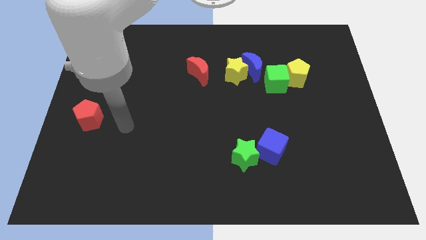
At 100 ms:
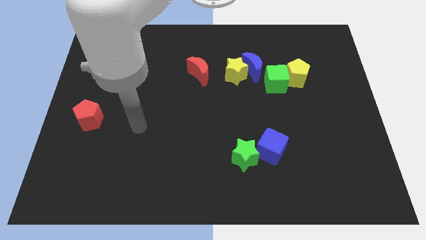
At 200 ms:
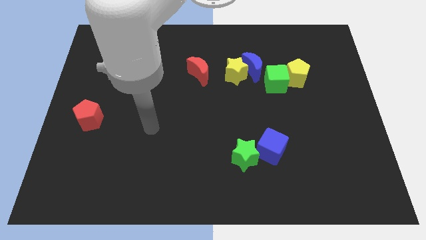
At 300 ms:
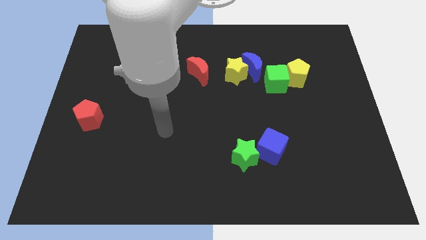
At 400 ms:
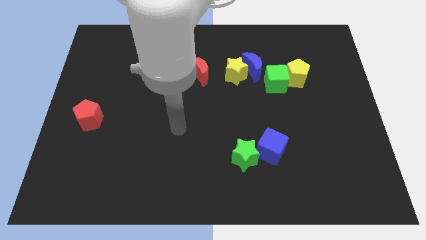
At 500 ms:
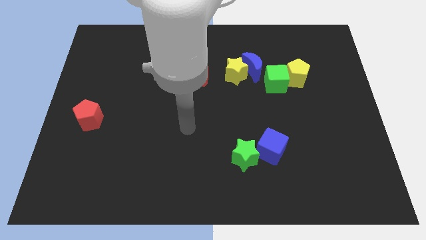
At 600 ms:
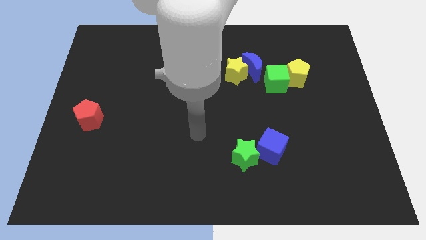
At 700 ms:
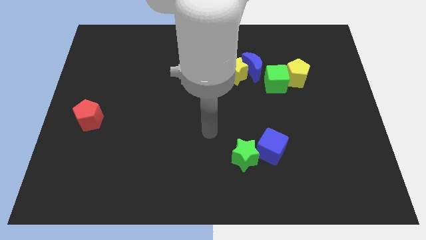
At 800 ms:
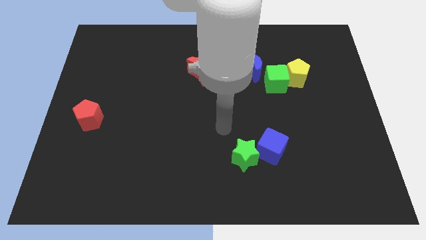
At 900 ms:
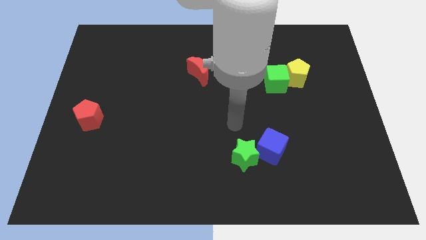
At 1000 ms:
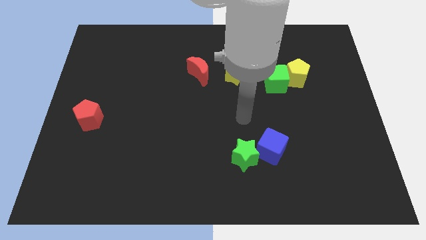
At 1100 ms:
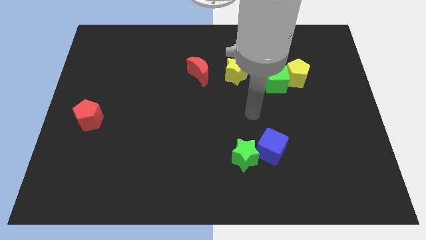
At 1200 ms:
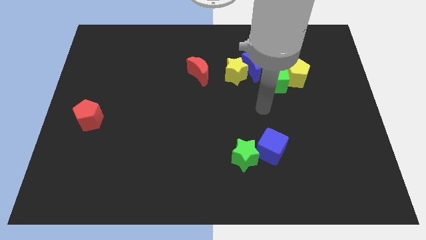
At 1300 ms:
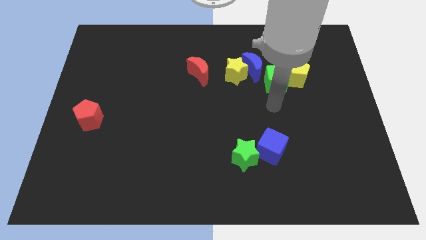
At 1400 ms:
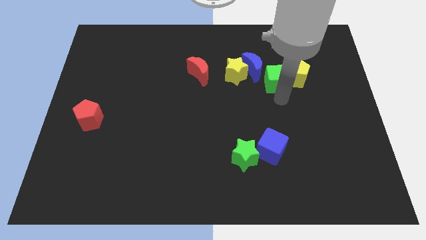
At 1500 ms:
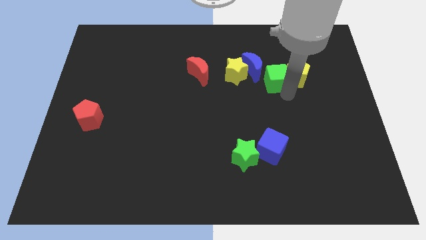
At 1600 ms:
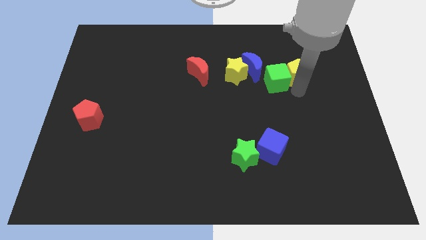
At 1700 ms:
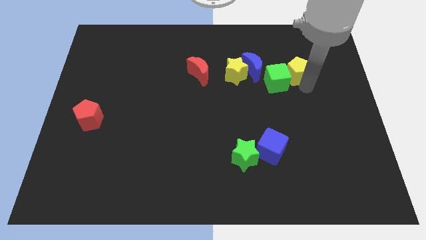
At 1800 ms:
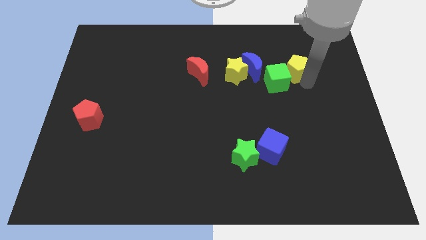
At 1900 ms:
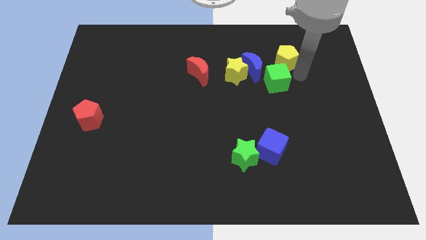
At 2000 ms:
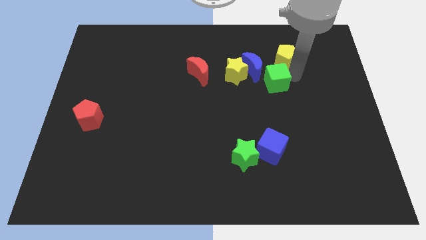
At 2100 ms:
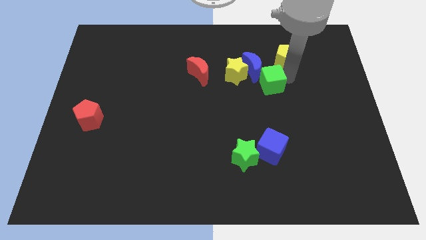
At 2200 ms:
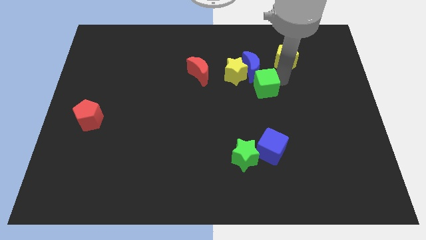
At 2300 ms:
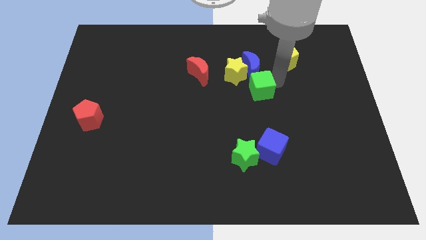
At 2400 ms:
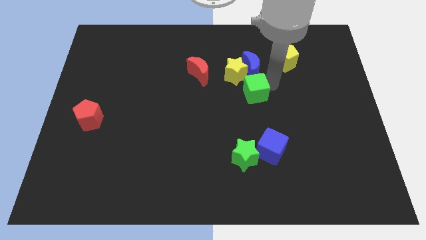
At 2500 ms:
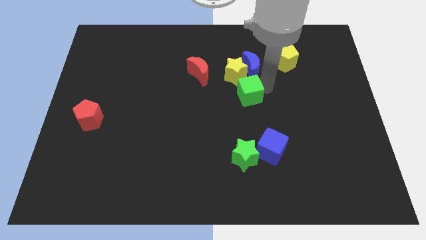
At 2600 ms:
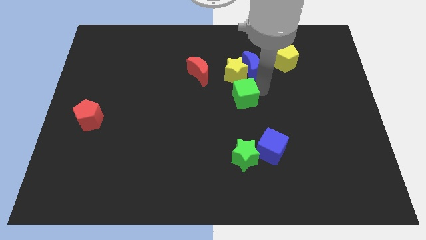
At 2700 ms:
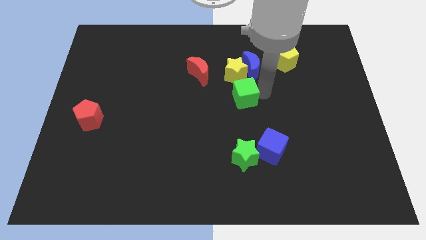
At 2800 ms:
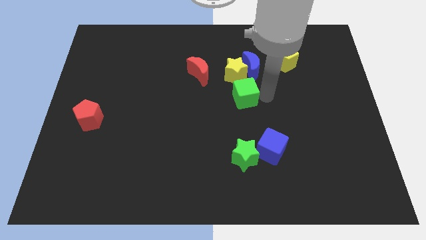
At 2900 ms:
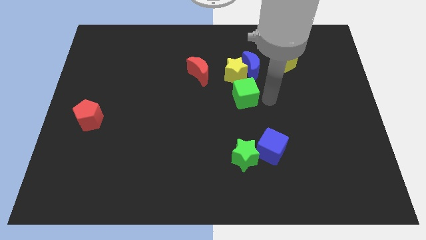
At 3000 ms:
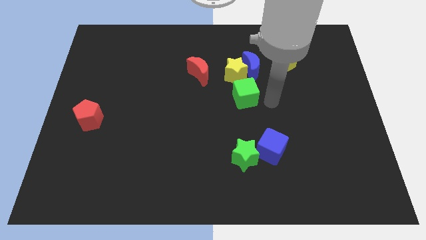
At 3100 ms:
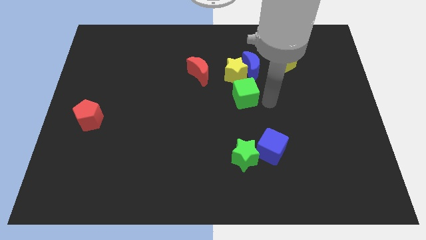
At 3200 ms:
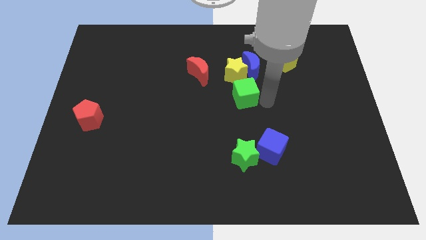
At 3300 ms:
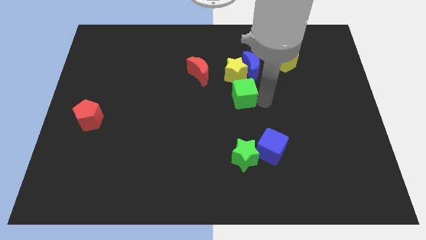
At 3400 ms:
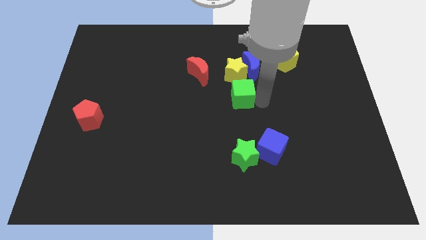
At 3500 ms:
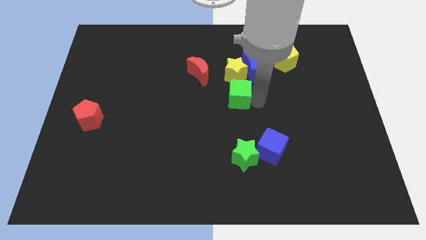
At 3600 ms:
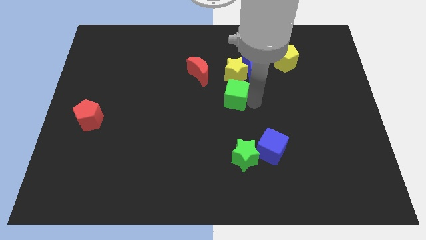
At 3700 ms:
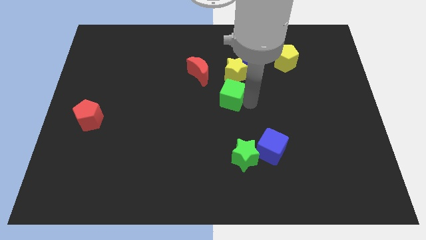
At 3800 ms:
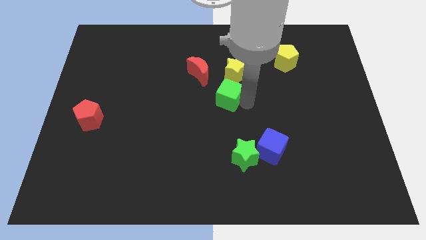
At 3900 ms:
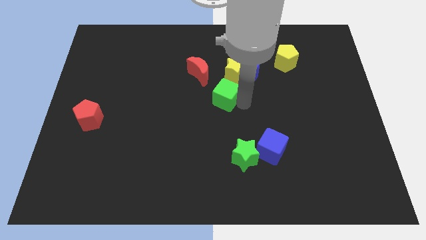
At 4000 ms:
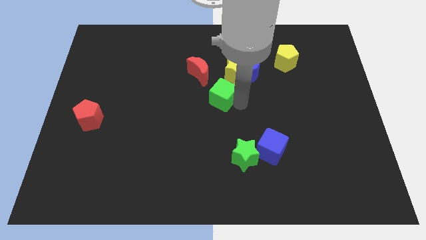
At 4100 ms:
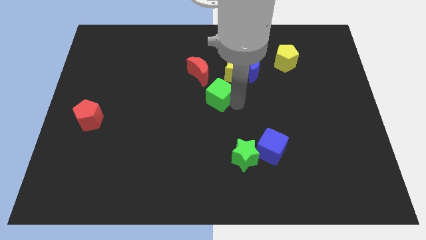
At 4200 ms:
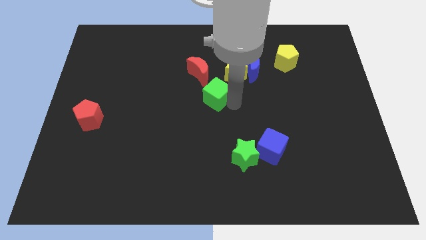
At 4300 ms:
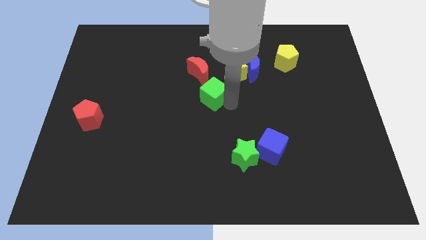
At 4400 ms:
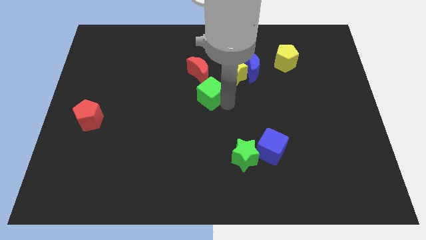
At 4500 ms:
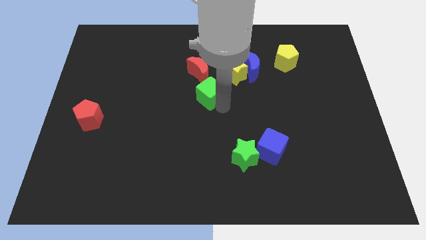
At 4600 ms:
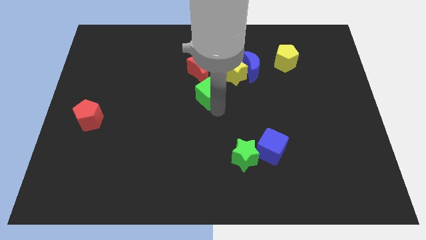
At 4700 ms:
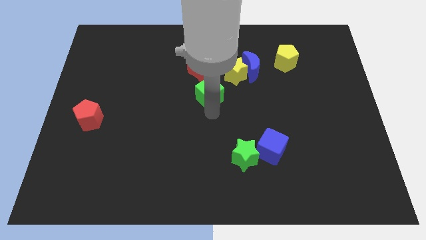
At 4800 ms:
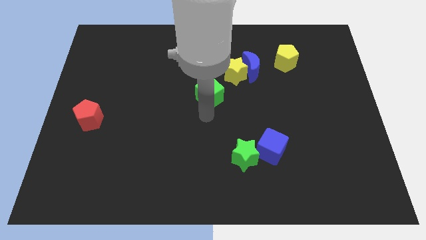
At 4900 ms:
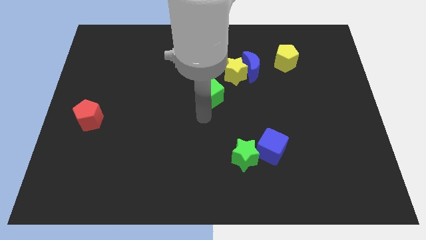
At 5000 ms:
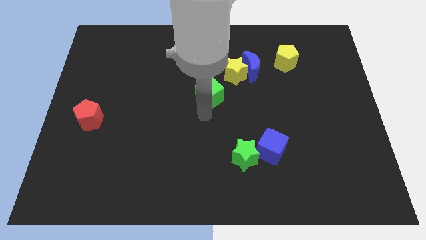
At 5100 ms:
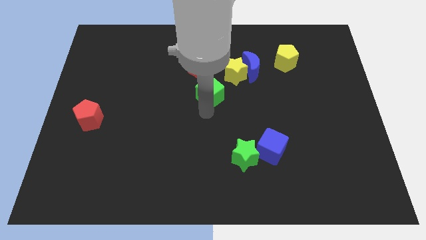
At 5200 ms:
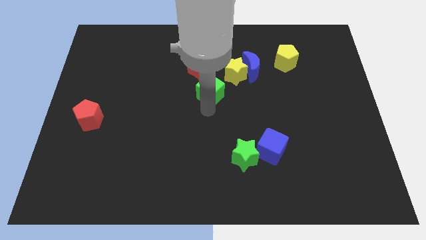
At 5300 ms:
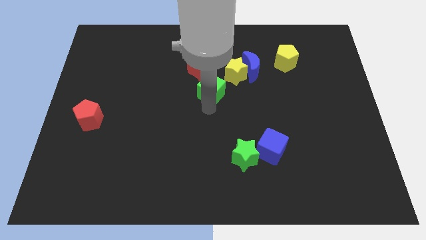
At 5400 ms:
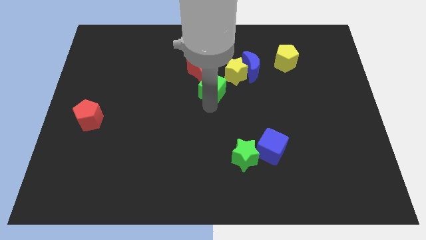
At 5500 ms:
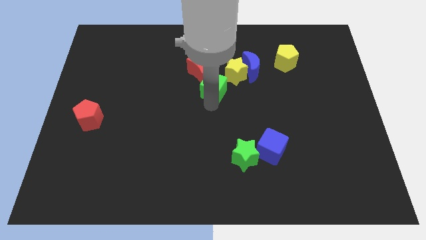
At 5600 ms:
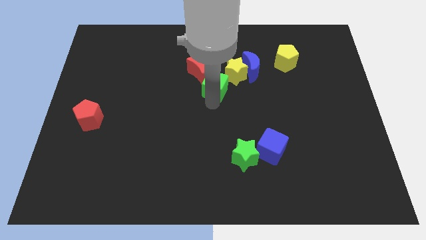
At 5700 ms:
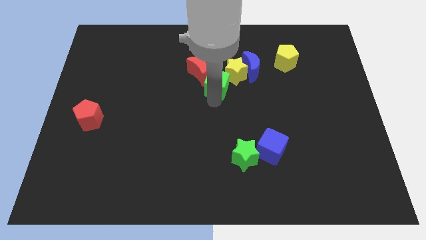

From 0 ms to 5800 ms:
put the green cube next to the red moon

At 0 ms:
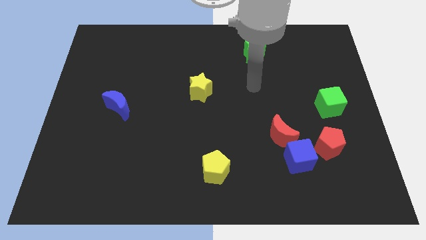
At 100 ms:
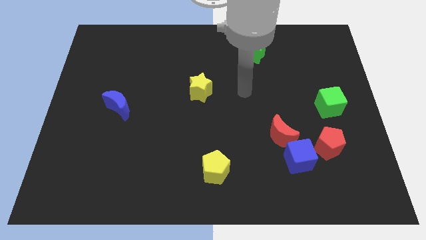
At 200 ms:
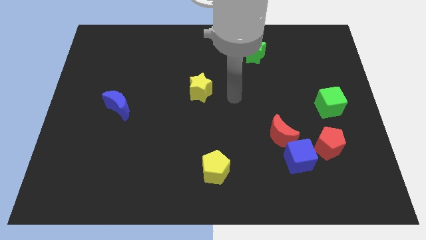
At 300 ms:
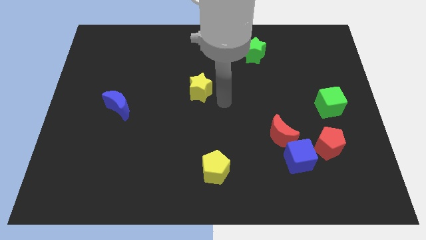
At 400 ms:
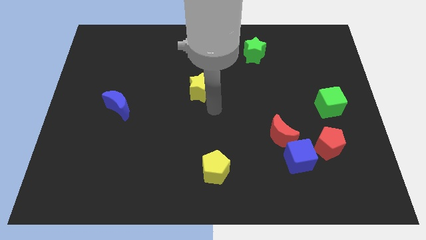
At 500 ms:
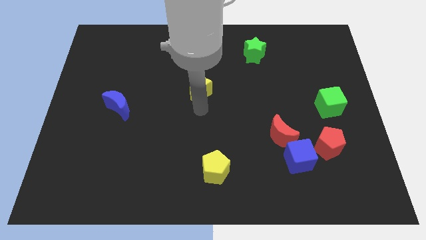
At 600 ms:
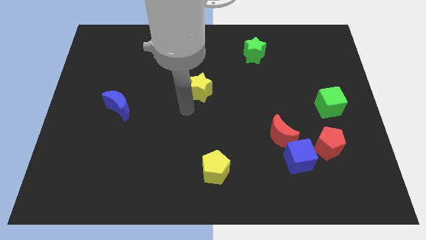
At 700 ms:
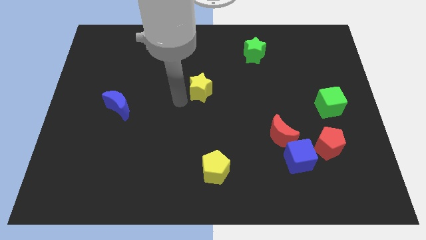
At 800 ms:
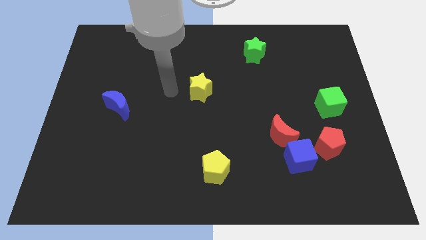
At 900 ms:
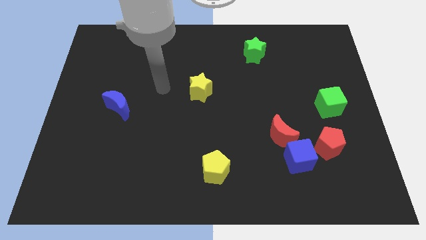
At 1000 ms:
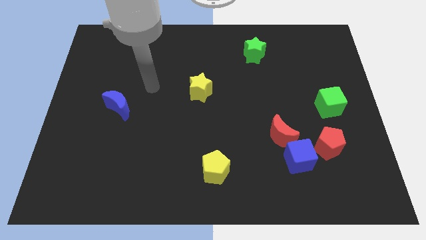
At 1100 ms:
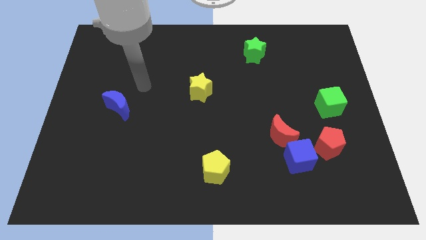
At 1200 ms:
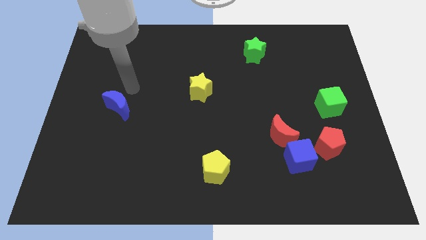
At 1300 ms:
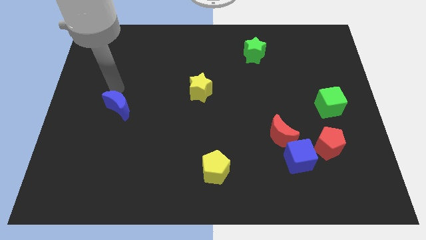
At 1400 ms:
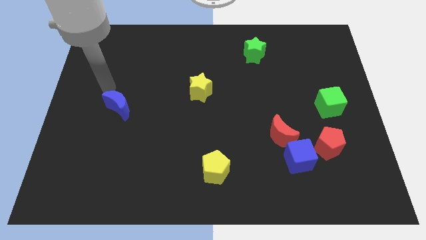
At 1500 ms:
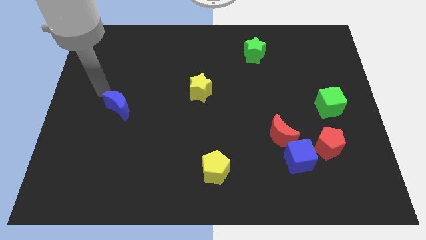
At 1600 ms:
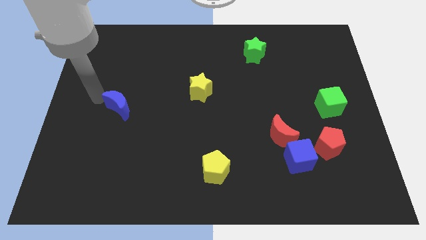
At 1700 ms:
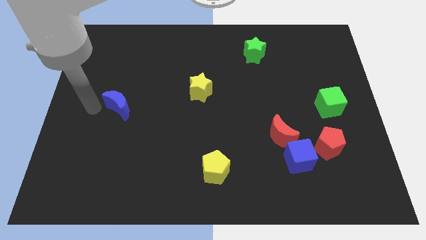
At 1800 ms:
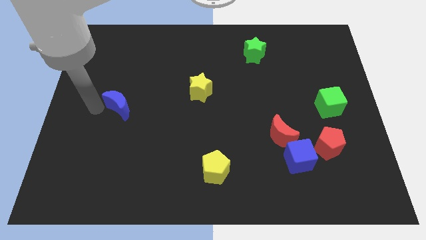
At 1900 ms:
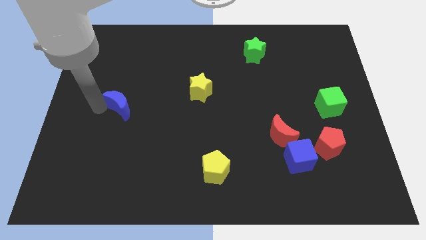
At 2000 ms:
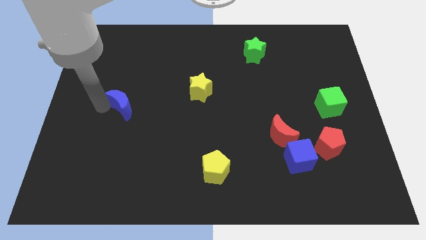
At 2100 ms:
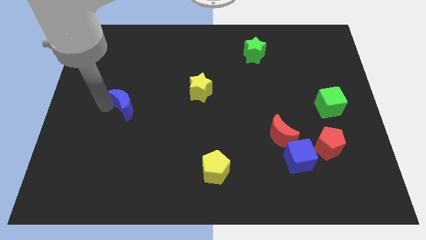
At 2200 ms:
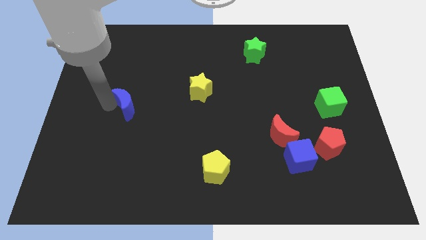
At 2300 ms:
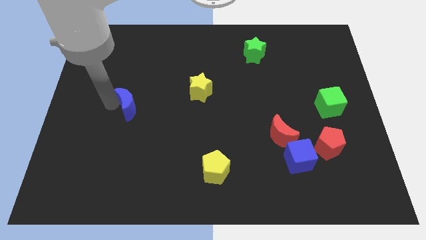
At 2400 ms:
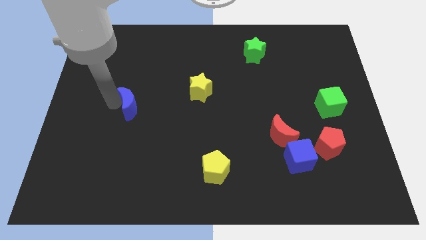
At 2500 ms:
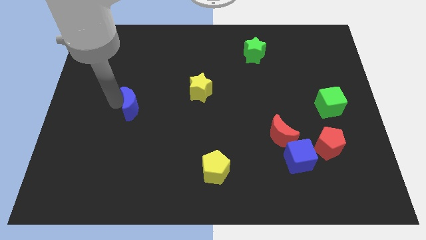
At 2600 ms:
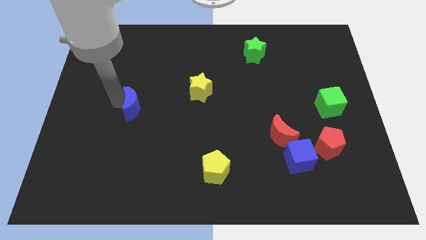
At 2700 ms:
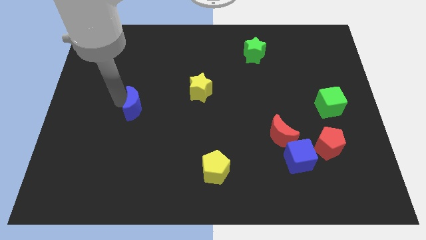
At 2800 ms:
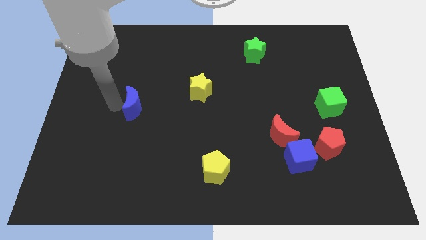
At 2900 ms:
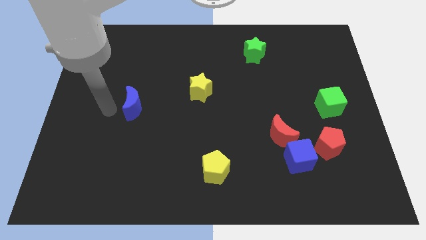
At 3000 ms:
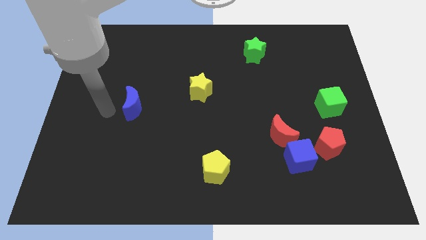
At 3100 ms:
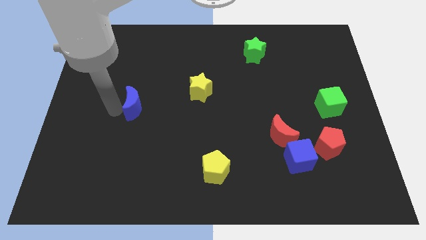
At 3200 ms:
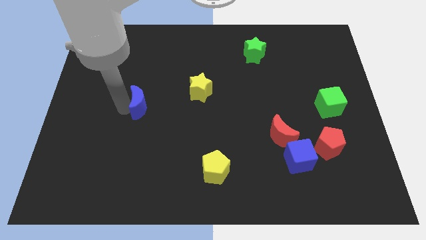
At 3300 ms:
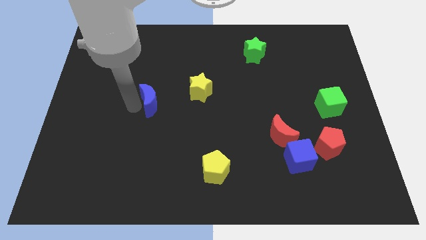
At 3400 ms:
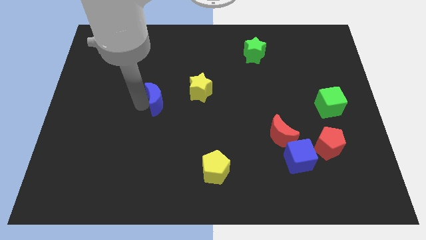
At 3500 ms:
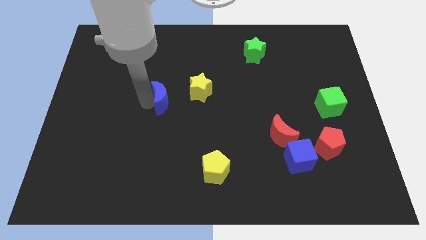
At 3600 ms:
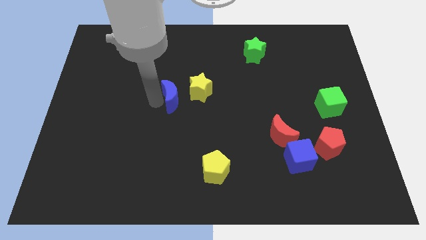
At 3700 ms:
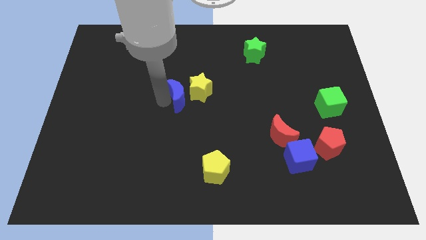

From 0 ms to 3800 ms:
put the blue moon next to the yellow star
